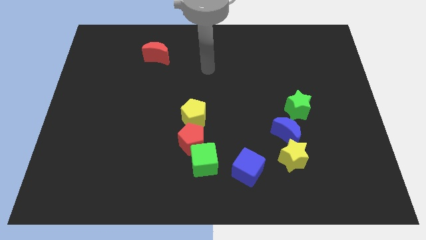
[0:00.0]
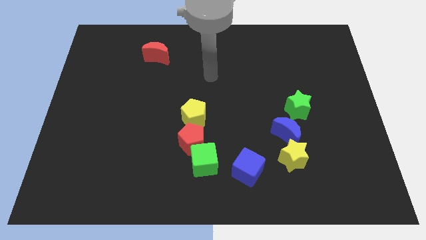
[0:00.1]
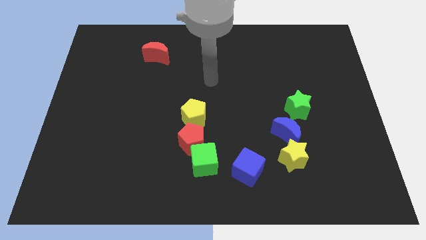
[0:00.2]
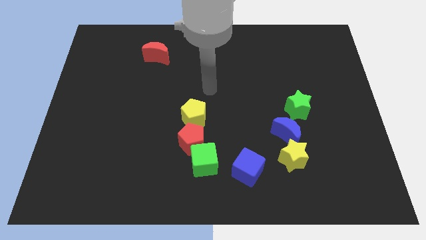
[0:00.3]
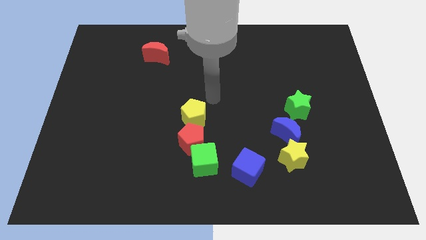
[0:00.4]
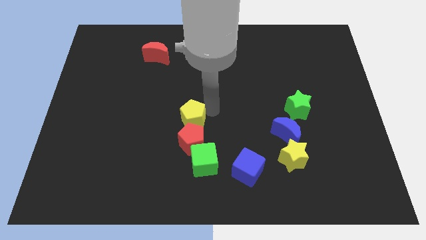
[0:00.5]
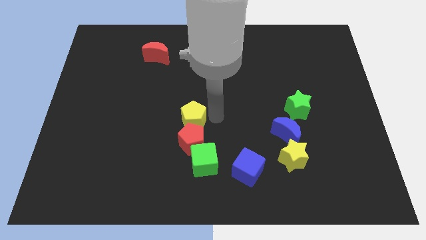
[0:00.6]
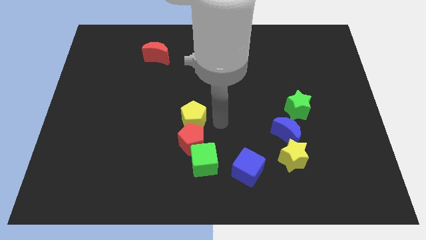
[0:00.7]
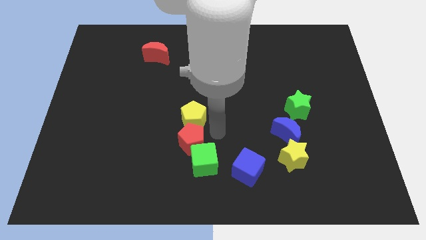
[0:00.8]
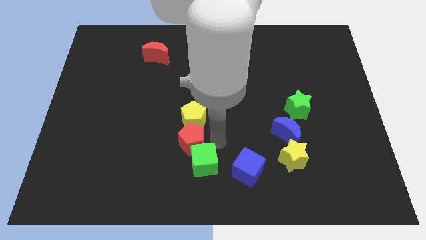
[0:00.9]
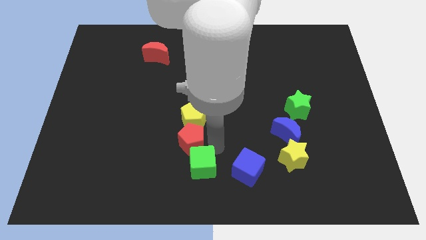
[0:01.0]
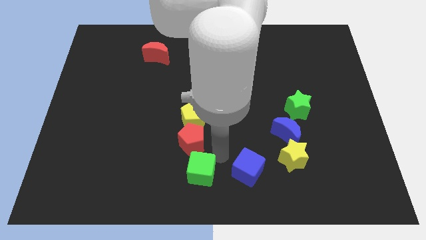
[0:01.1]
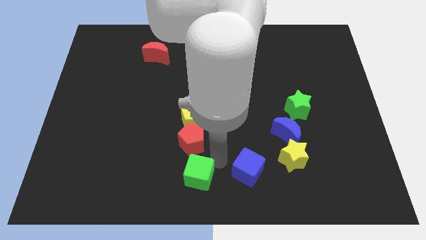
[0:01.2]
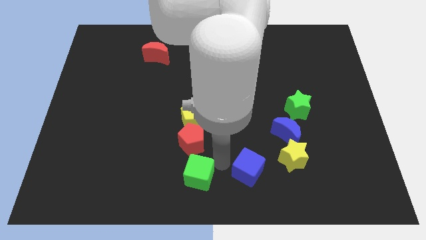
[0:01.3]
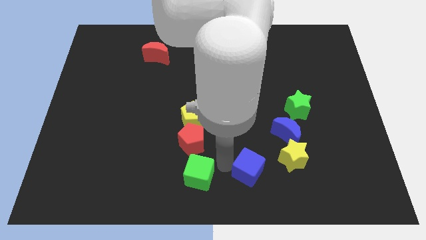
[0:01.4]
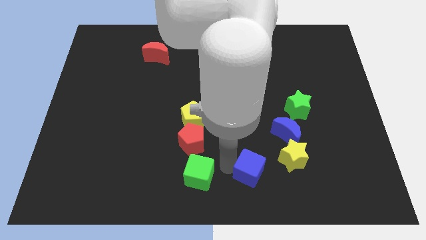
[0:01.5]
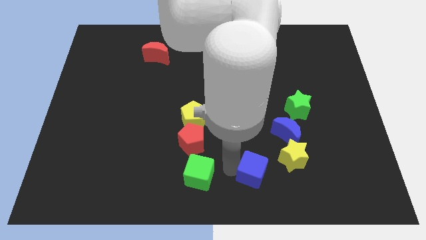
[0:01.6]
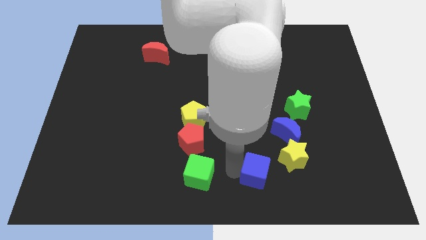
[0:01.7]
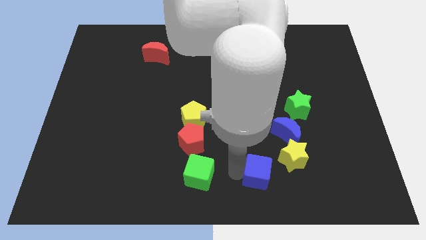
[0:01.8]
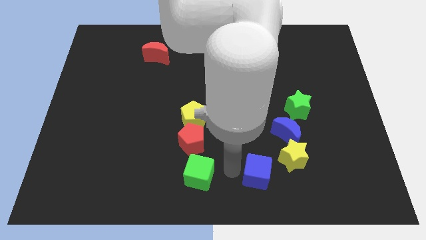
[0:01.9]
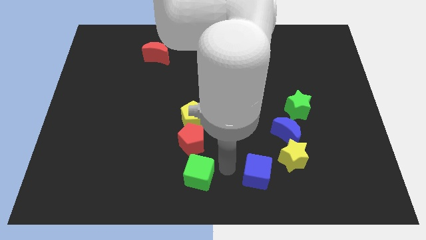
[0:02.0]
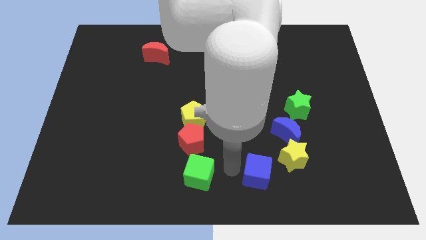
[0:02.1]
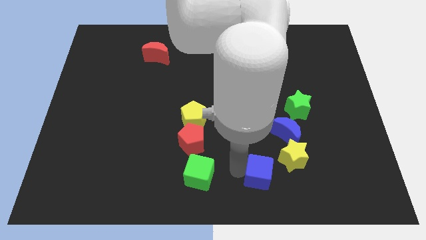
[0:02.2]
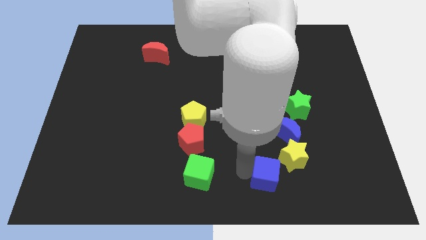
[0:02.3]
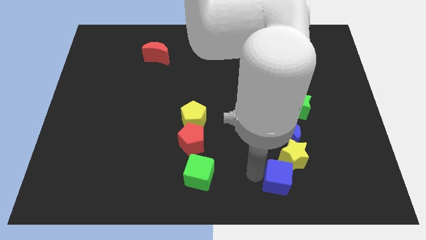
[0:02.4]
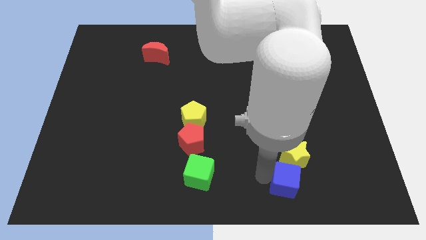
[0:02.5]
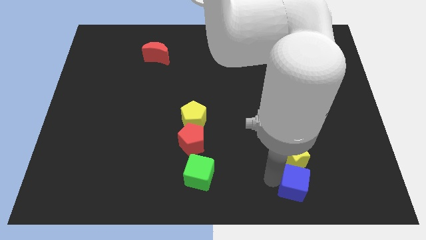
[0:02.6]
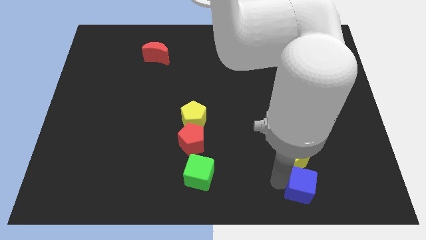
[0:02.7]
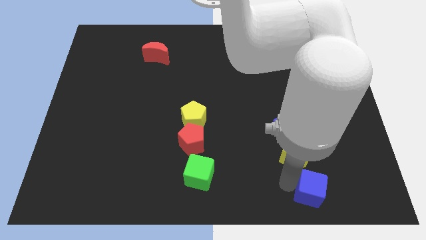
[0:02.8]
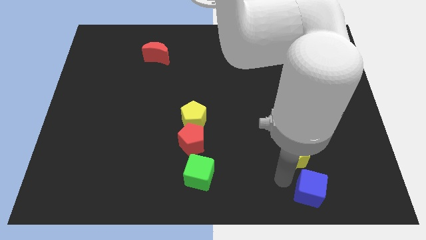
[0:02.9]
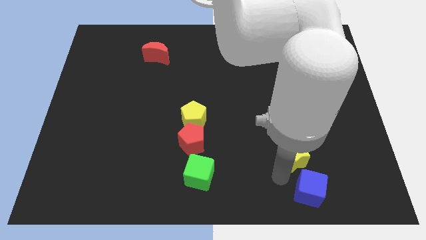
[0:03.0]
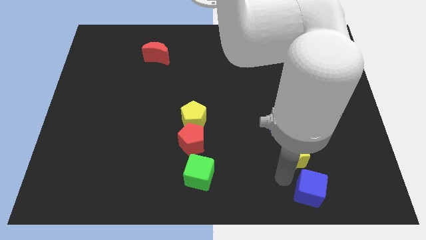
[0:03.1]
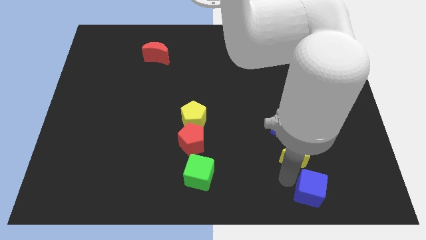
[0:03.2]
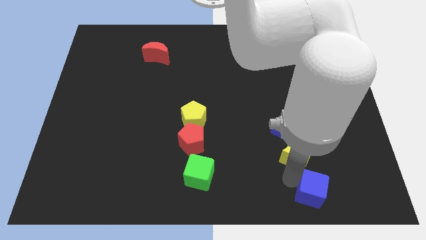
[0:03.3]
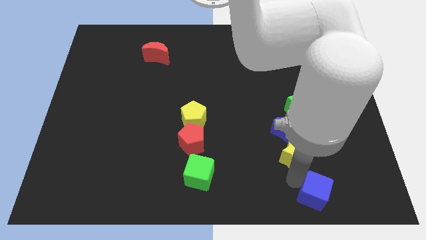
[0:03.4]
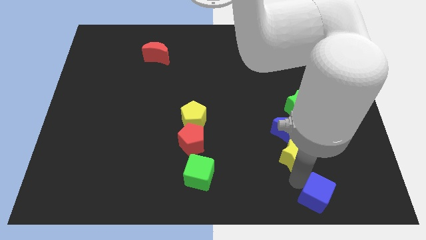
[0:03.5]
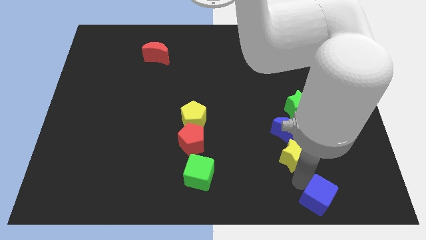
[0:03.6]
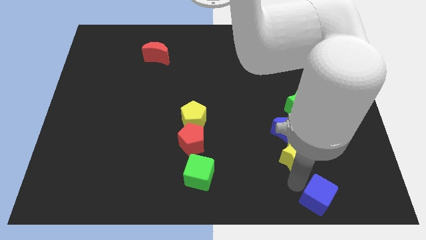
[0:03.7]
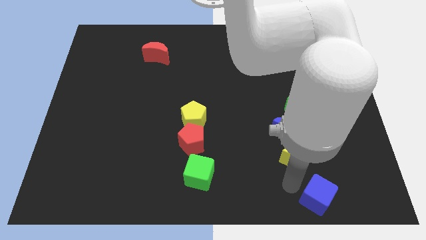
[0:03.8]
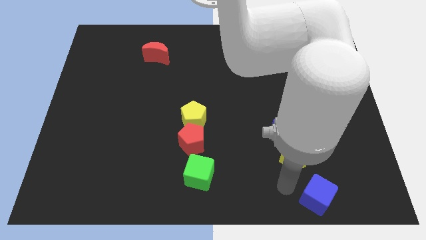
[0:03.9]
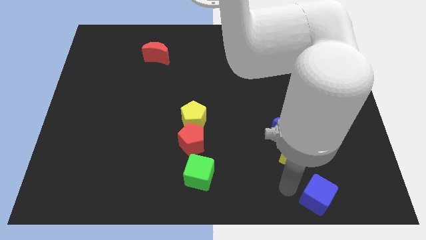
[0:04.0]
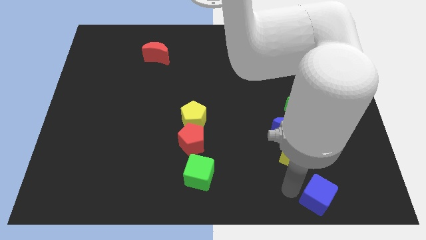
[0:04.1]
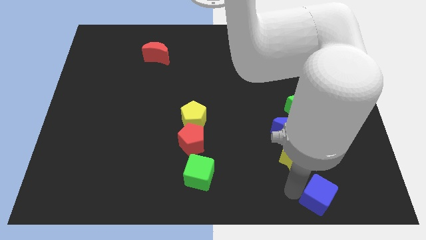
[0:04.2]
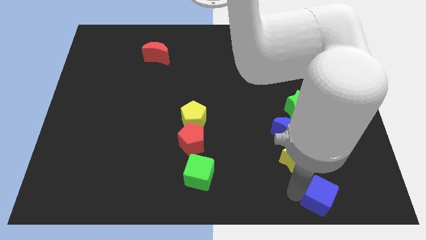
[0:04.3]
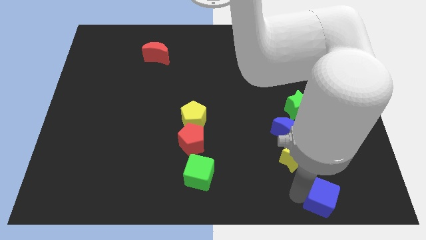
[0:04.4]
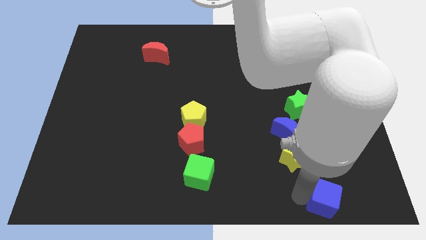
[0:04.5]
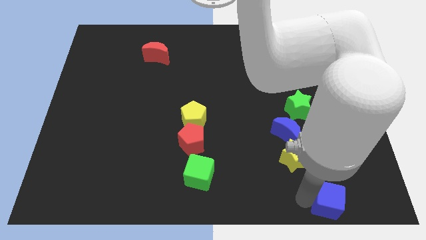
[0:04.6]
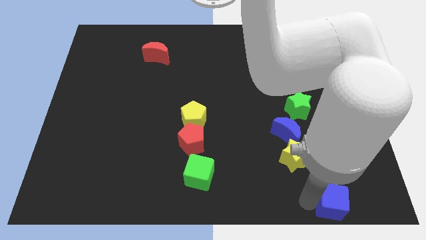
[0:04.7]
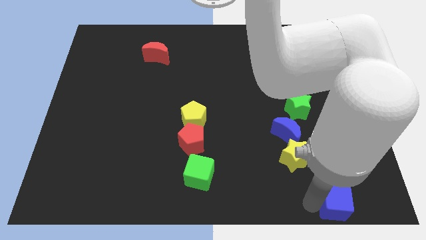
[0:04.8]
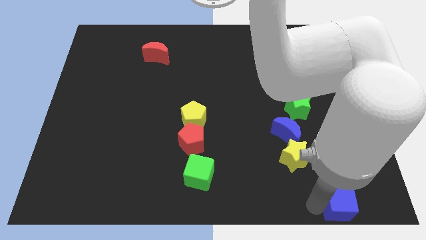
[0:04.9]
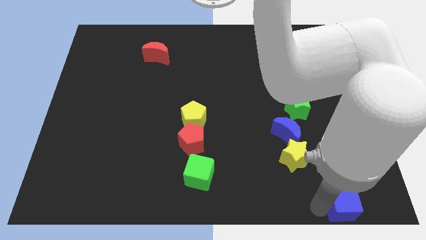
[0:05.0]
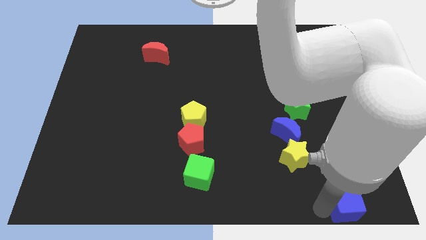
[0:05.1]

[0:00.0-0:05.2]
slide the blue cube to the bottom right corner

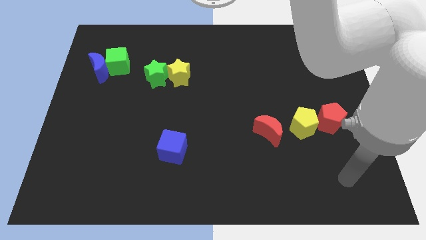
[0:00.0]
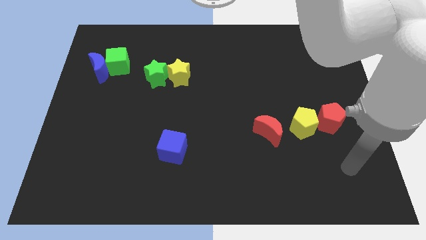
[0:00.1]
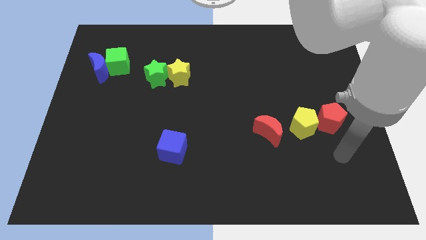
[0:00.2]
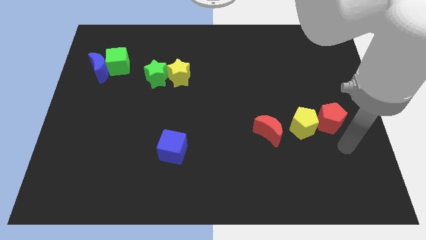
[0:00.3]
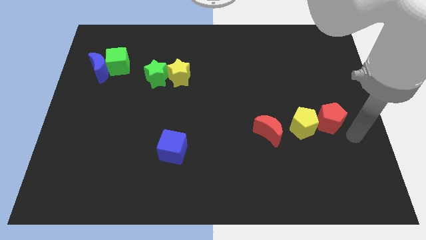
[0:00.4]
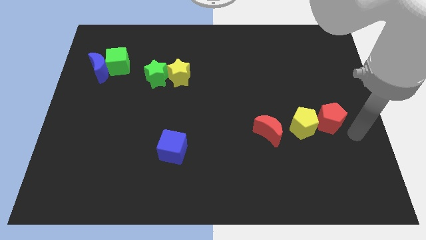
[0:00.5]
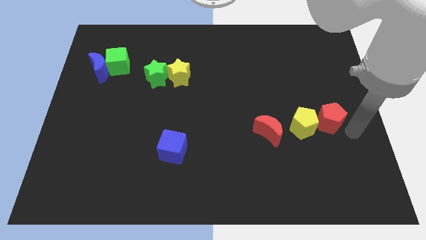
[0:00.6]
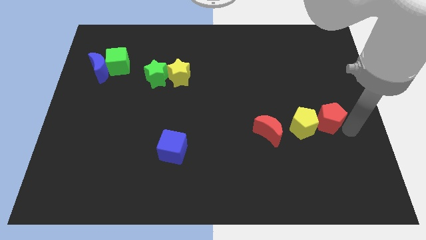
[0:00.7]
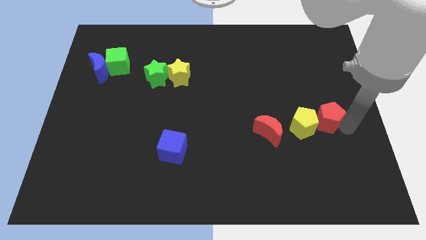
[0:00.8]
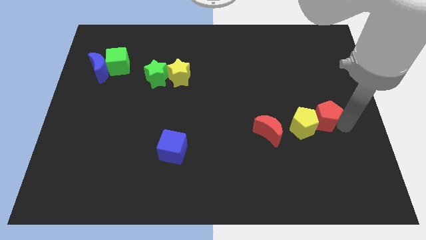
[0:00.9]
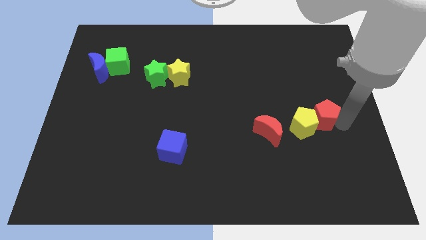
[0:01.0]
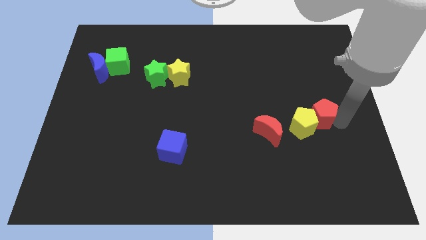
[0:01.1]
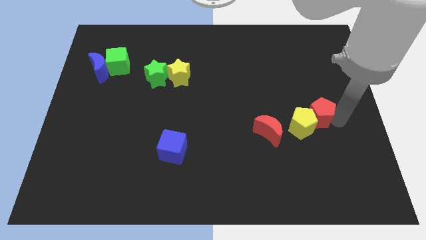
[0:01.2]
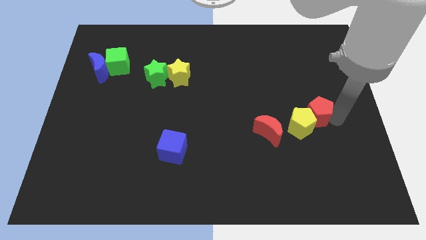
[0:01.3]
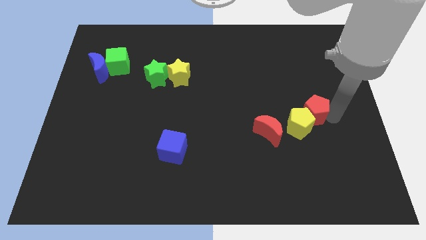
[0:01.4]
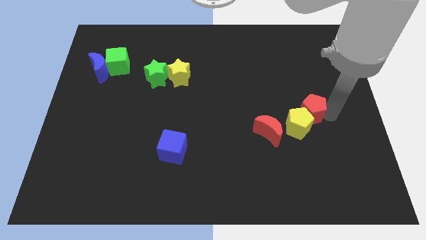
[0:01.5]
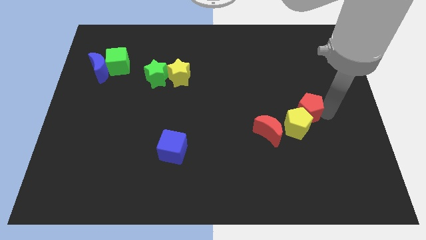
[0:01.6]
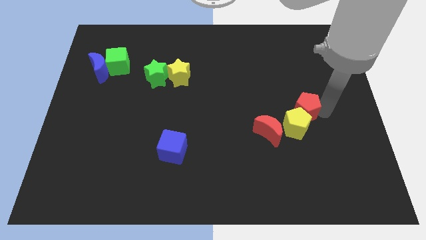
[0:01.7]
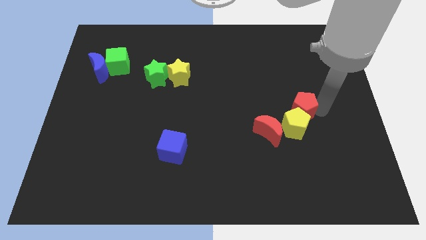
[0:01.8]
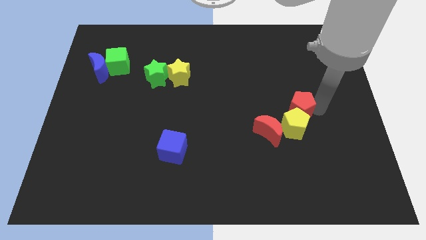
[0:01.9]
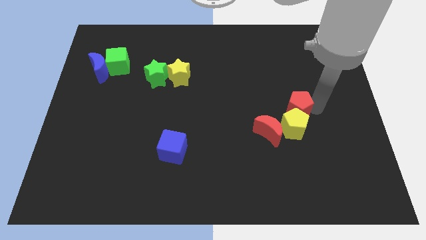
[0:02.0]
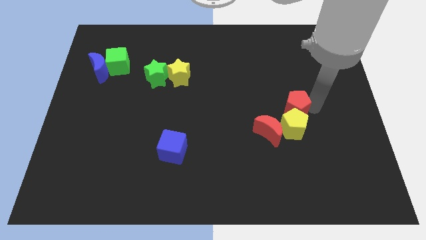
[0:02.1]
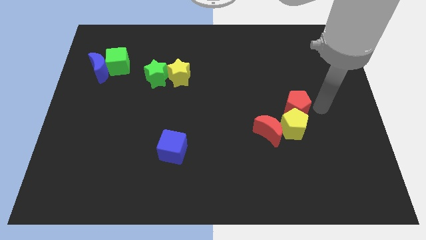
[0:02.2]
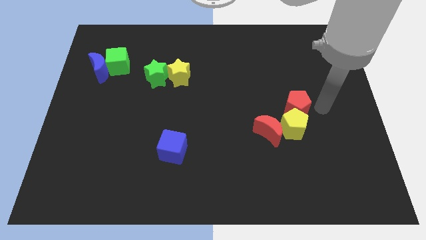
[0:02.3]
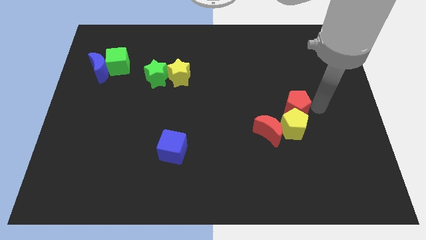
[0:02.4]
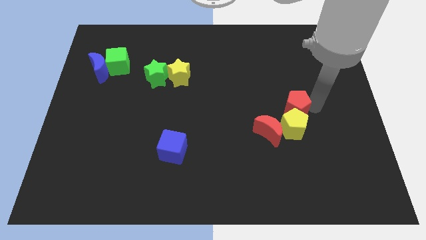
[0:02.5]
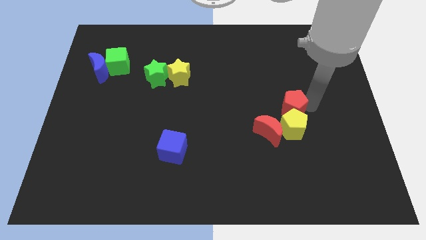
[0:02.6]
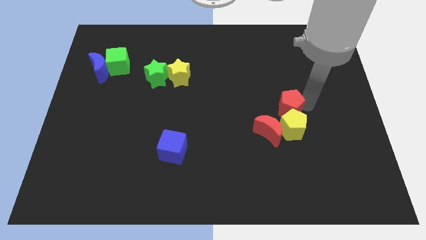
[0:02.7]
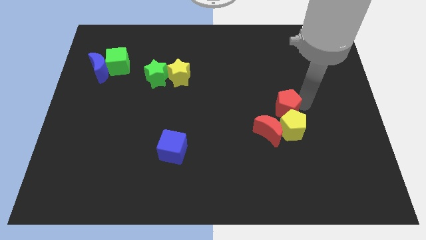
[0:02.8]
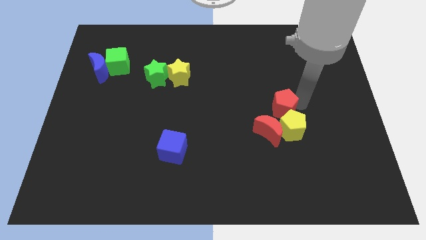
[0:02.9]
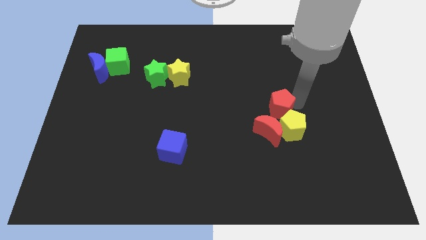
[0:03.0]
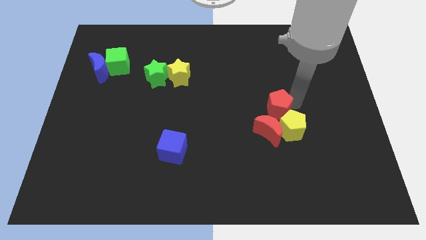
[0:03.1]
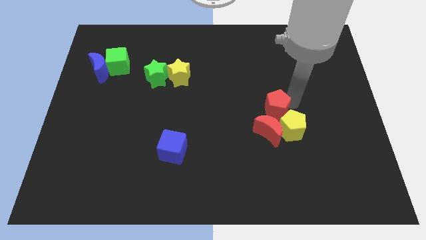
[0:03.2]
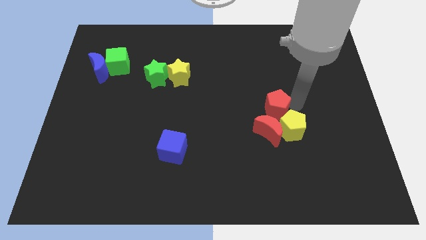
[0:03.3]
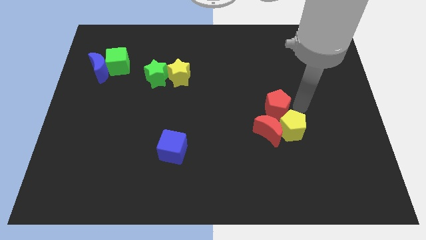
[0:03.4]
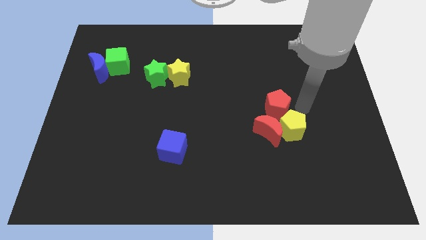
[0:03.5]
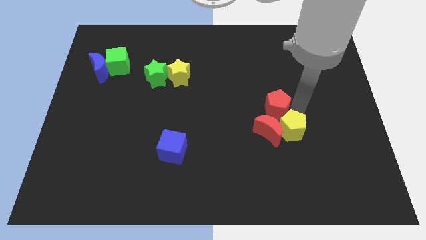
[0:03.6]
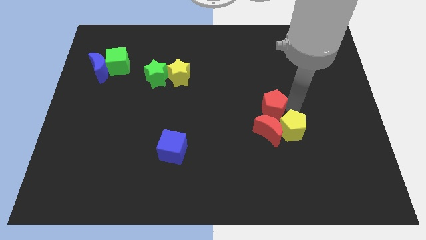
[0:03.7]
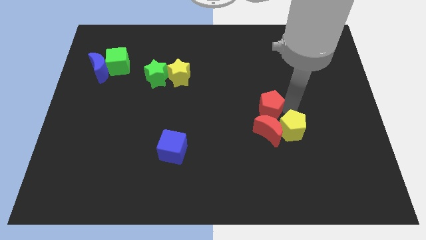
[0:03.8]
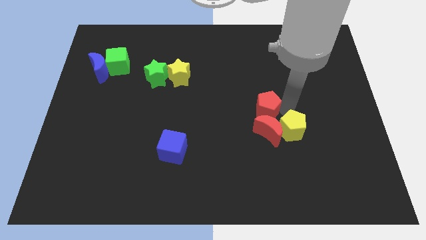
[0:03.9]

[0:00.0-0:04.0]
put the red pentagon to the middle
